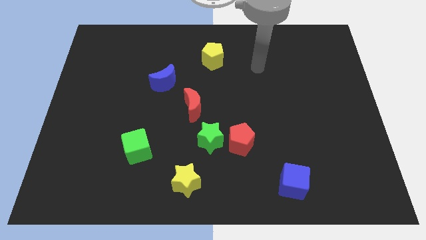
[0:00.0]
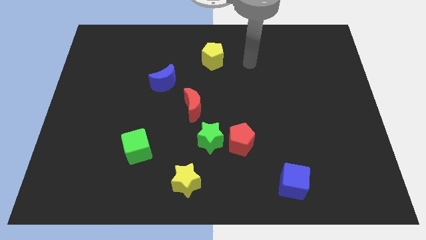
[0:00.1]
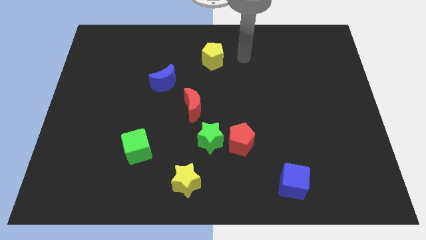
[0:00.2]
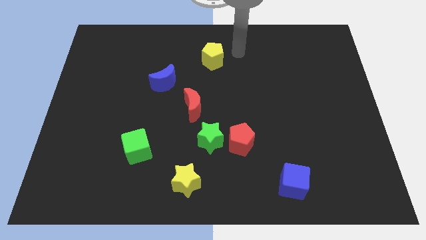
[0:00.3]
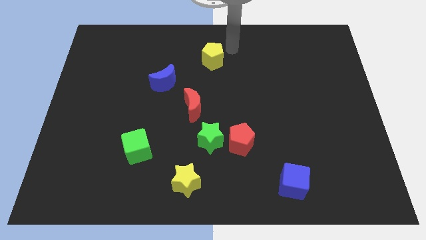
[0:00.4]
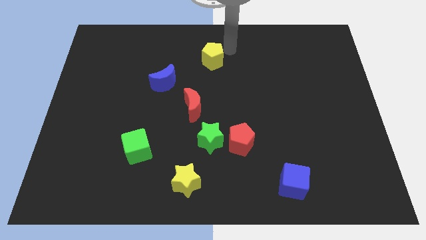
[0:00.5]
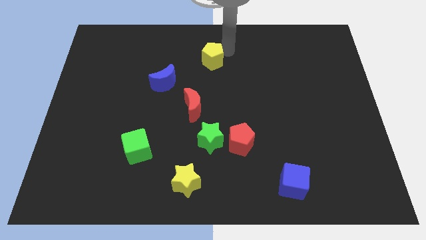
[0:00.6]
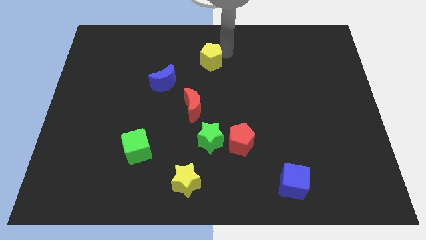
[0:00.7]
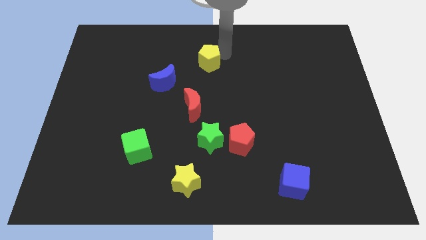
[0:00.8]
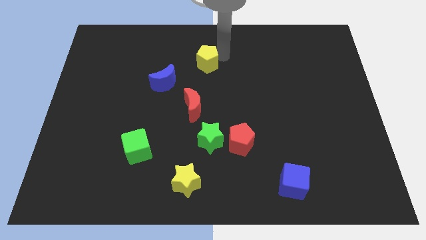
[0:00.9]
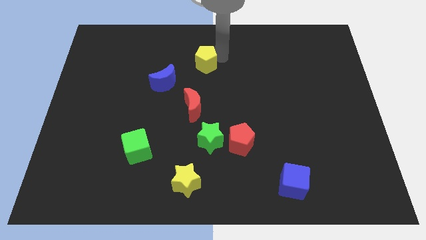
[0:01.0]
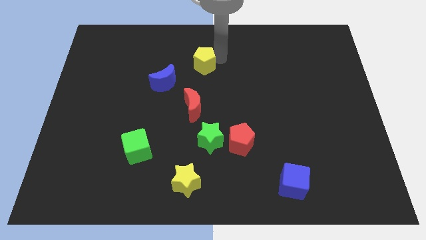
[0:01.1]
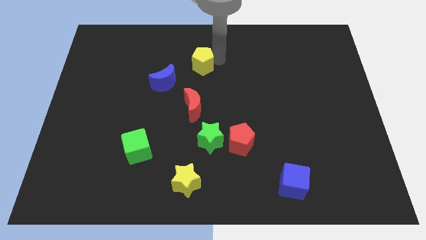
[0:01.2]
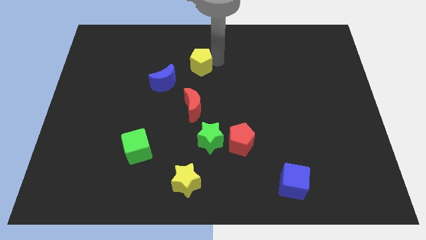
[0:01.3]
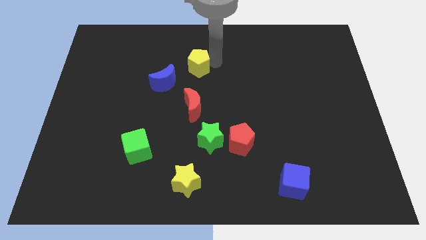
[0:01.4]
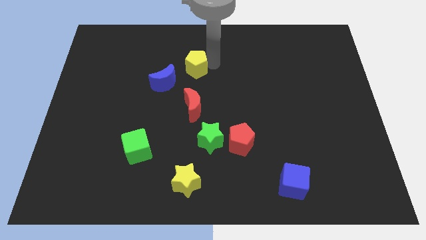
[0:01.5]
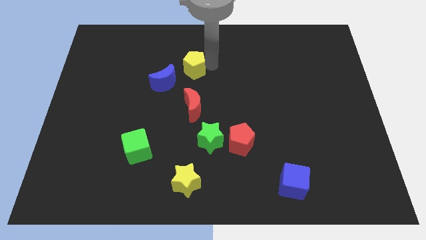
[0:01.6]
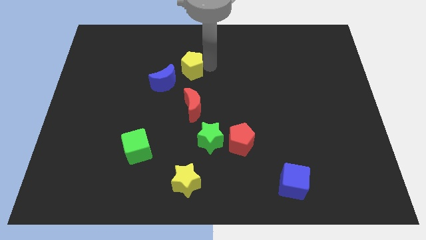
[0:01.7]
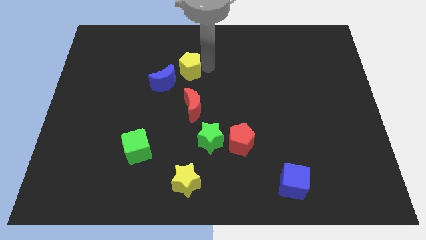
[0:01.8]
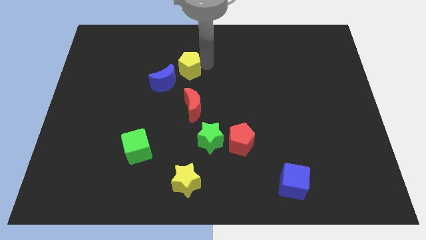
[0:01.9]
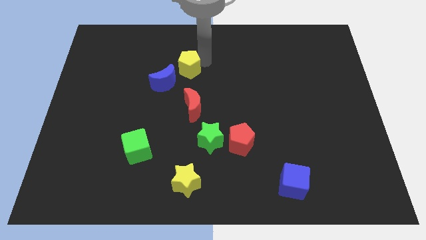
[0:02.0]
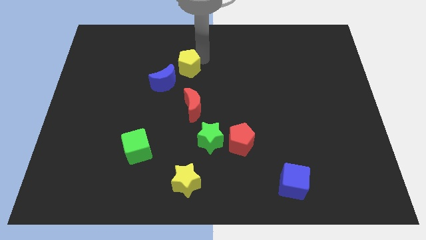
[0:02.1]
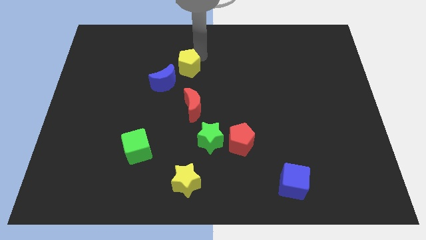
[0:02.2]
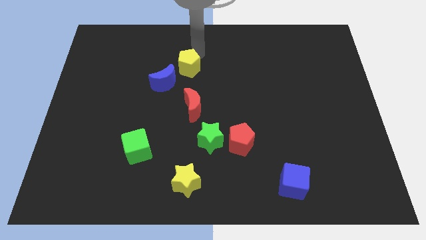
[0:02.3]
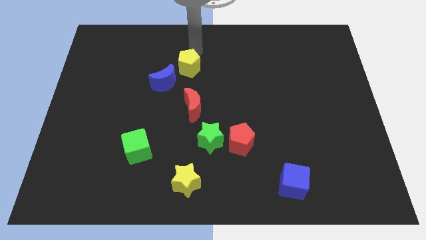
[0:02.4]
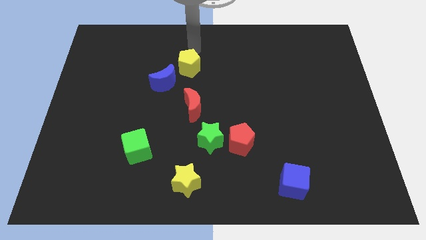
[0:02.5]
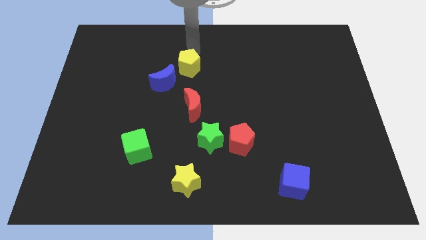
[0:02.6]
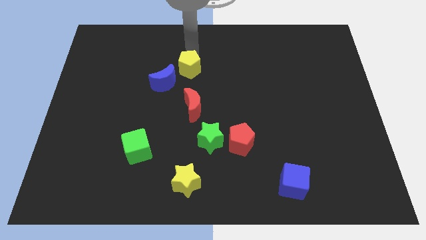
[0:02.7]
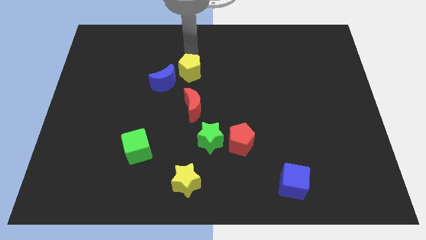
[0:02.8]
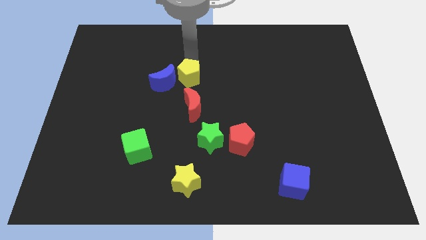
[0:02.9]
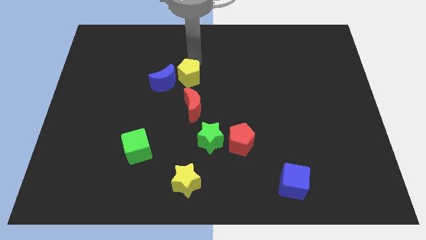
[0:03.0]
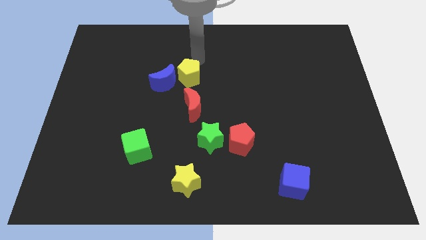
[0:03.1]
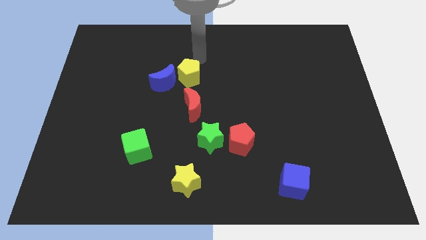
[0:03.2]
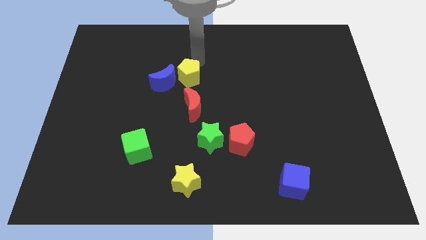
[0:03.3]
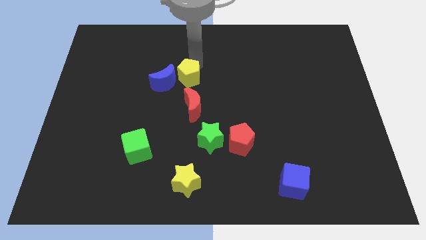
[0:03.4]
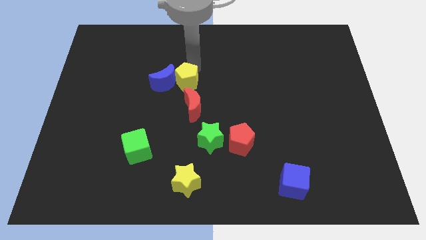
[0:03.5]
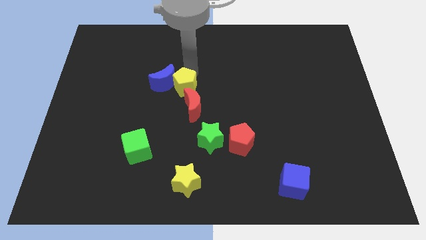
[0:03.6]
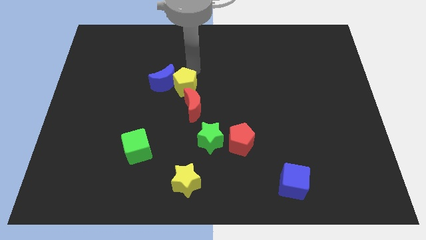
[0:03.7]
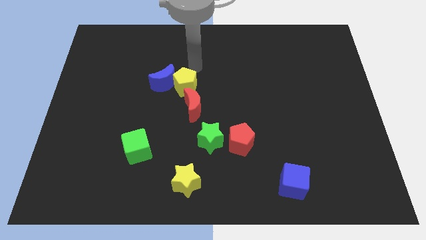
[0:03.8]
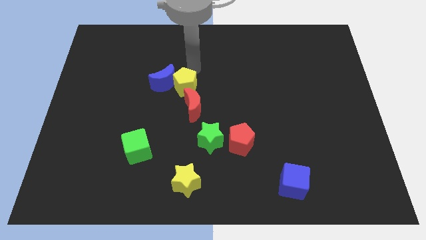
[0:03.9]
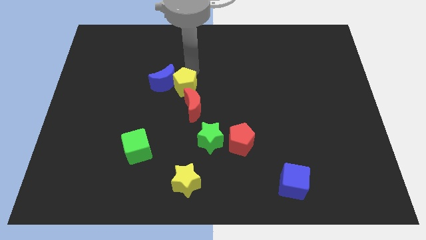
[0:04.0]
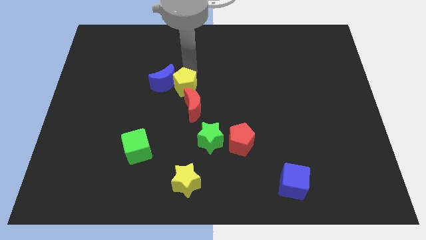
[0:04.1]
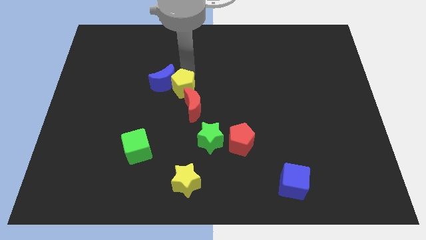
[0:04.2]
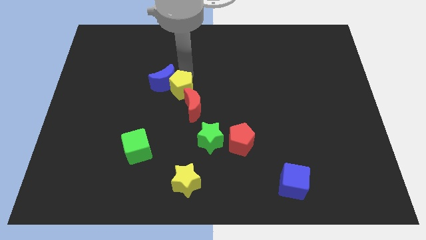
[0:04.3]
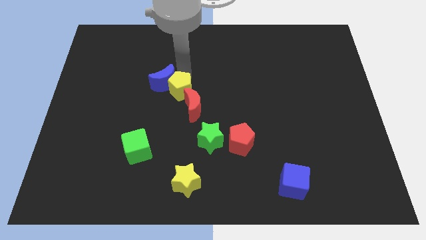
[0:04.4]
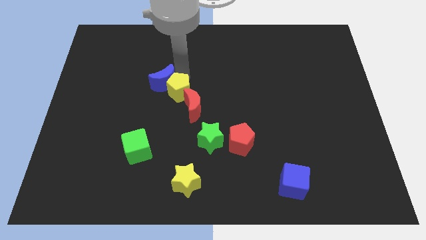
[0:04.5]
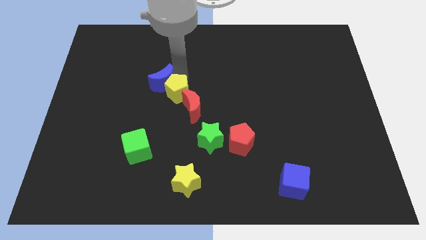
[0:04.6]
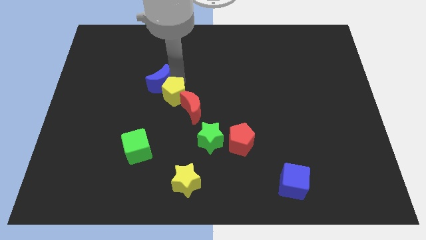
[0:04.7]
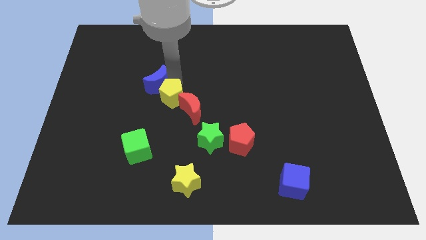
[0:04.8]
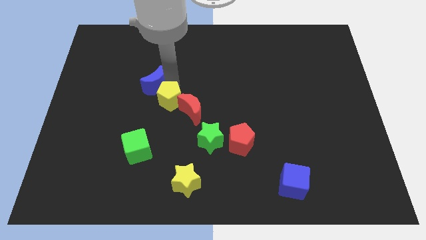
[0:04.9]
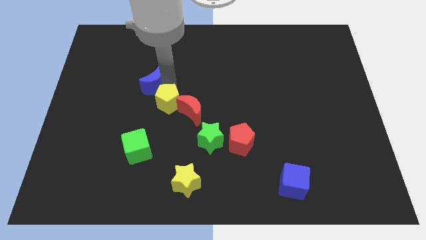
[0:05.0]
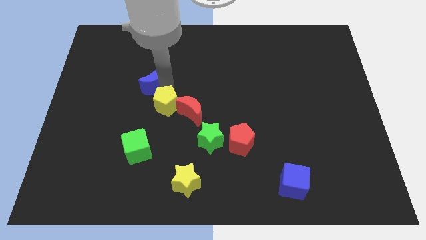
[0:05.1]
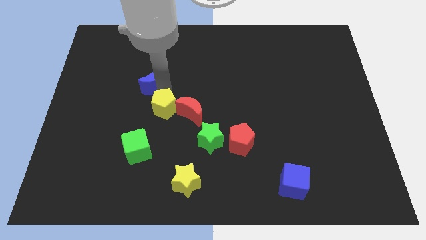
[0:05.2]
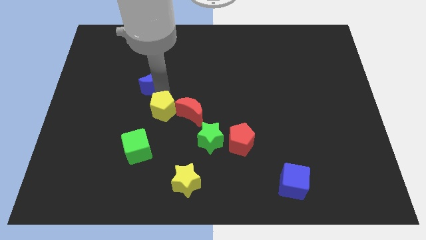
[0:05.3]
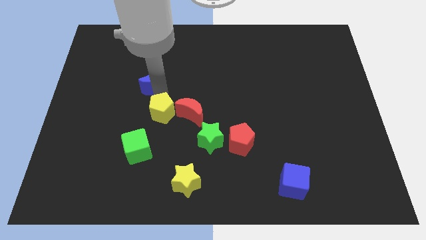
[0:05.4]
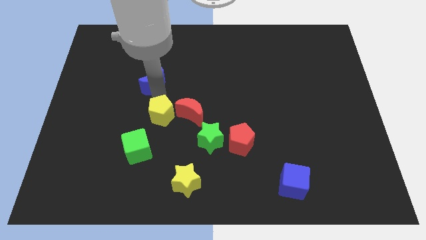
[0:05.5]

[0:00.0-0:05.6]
slide the yellow pentagon diagonally down and to the left of the red moon

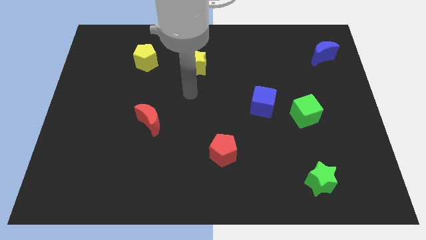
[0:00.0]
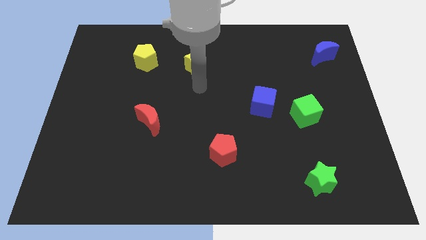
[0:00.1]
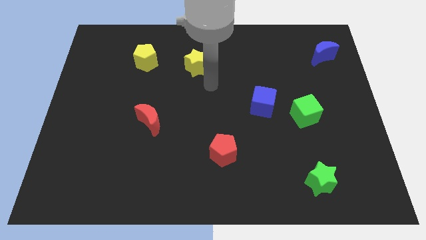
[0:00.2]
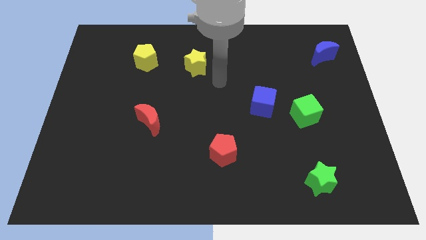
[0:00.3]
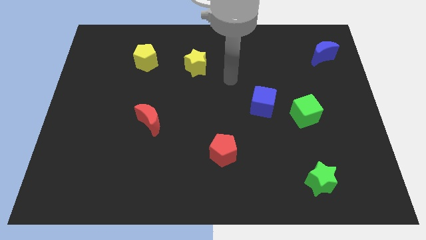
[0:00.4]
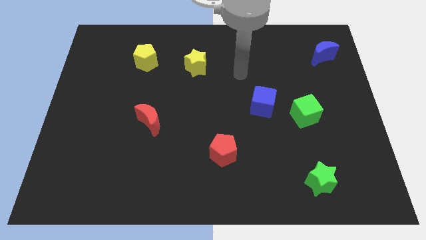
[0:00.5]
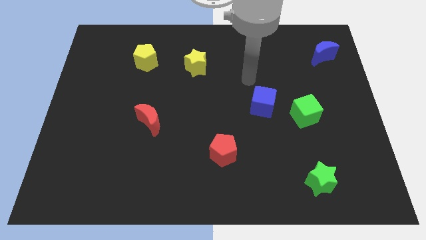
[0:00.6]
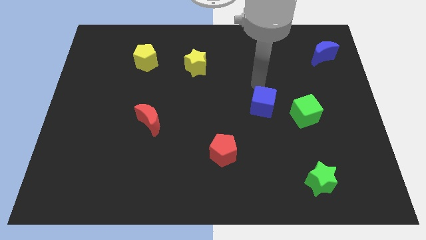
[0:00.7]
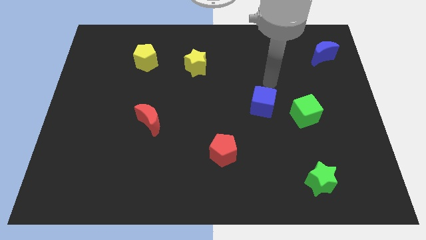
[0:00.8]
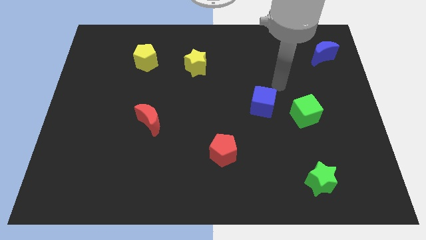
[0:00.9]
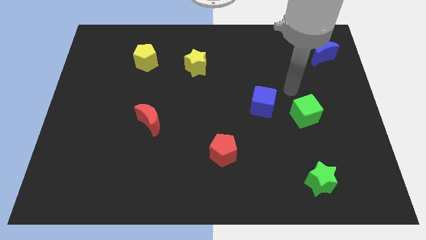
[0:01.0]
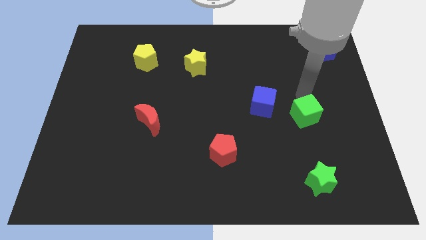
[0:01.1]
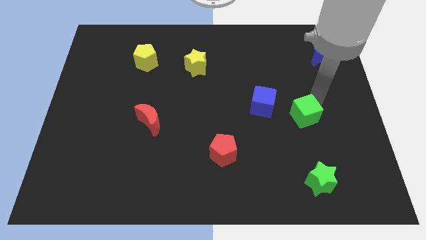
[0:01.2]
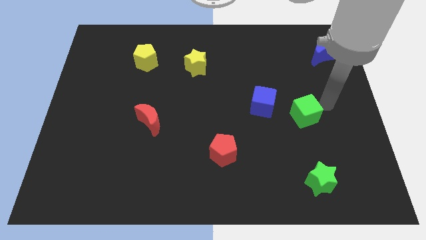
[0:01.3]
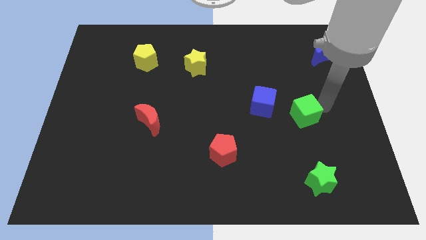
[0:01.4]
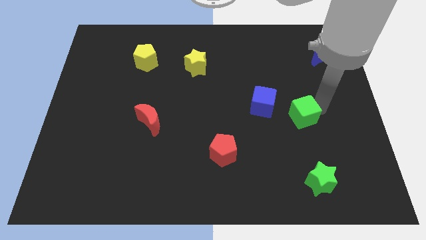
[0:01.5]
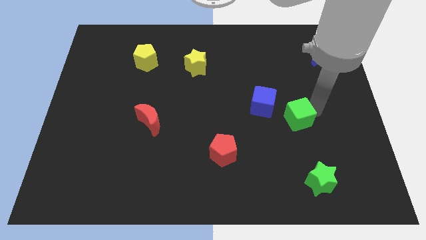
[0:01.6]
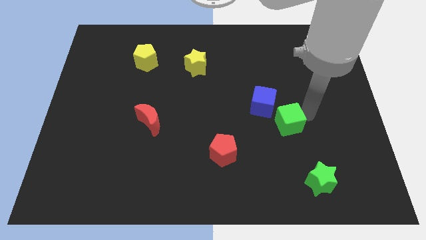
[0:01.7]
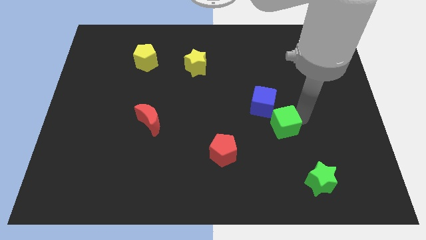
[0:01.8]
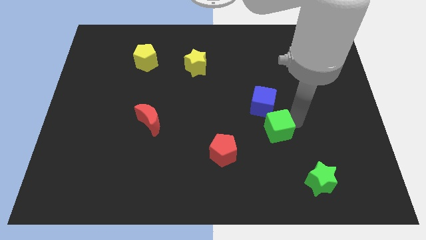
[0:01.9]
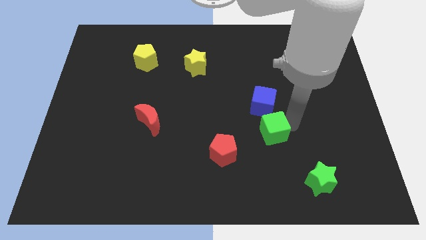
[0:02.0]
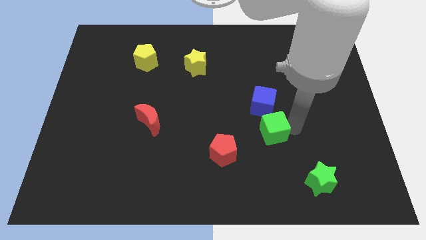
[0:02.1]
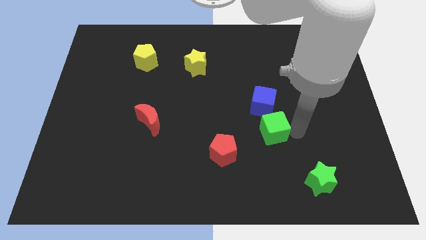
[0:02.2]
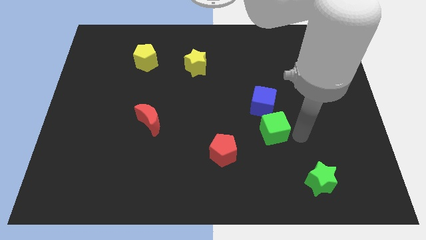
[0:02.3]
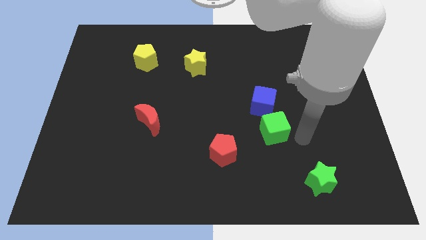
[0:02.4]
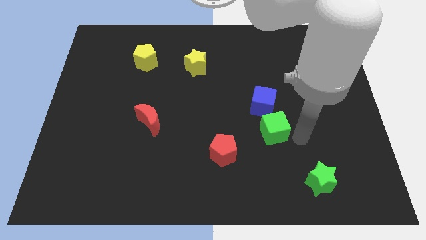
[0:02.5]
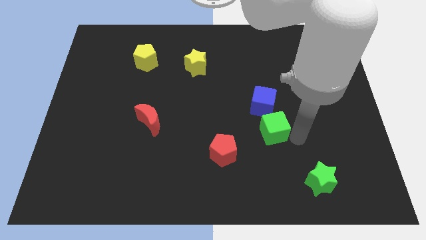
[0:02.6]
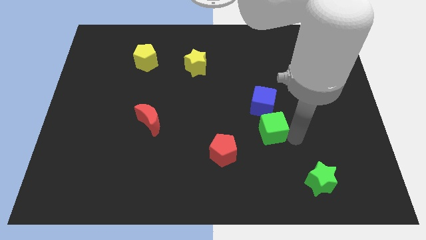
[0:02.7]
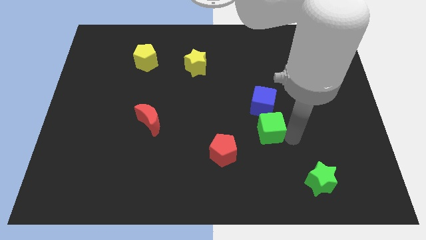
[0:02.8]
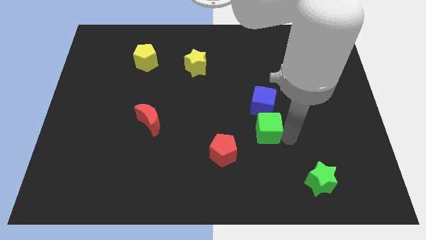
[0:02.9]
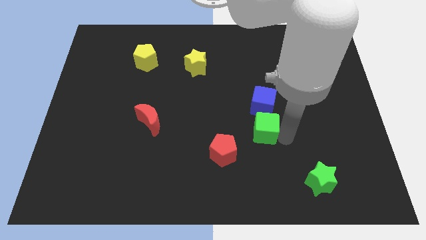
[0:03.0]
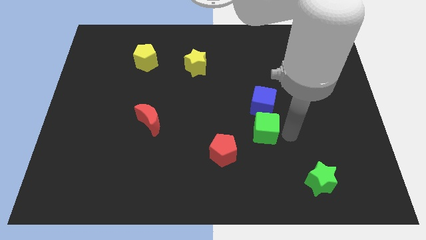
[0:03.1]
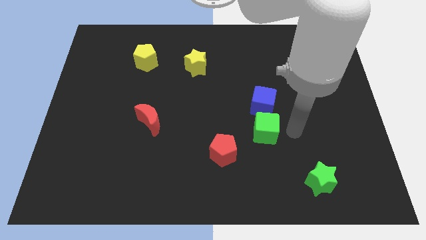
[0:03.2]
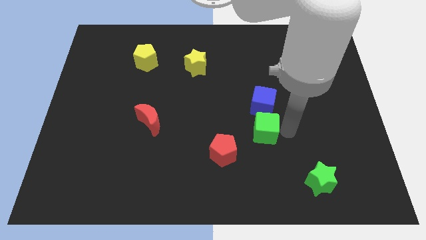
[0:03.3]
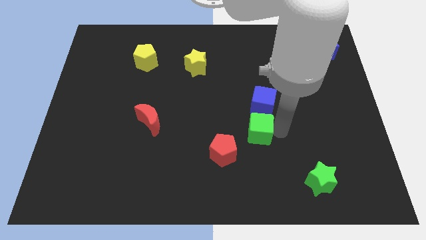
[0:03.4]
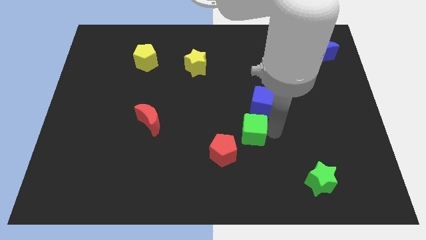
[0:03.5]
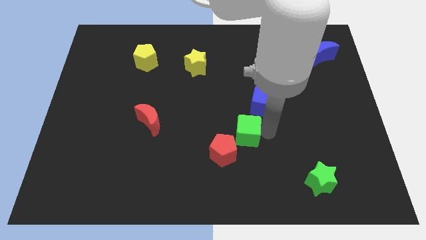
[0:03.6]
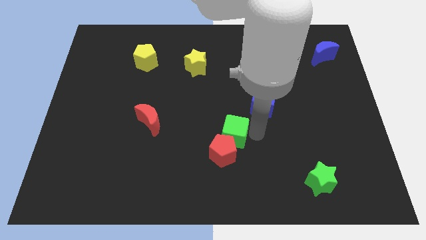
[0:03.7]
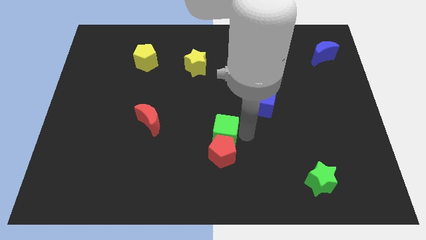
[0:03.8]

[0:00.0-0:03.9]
slide the green cube to the top left side of the red pentagon
